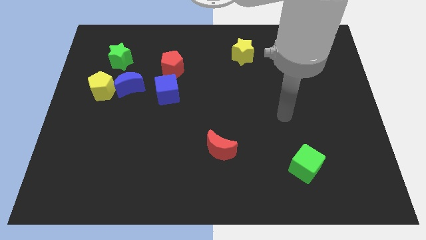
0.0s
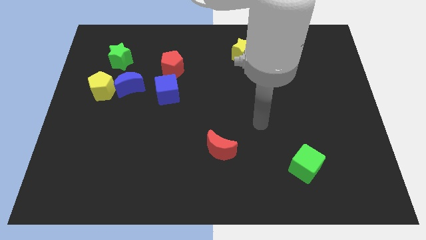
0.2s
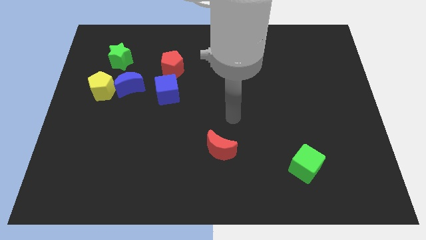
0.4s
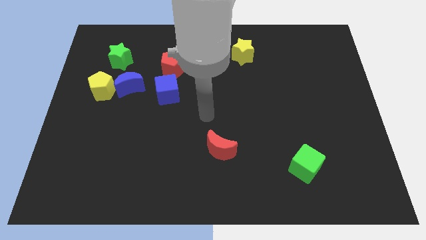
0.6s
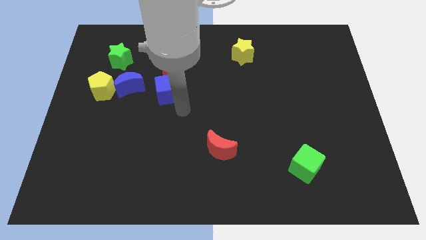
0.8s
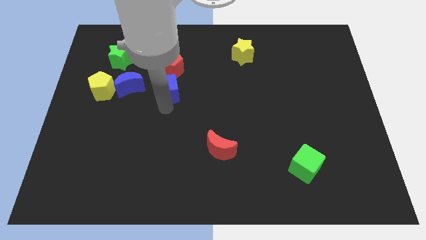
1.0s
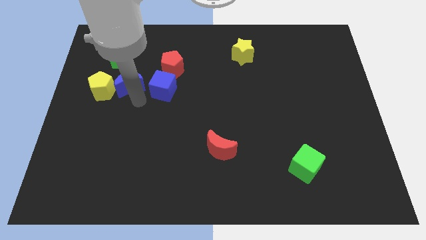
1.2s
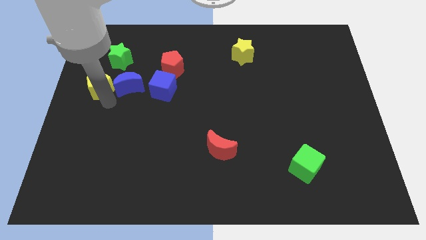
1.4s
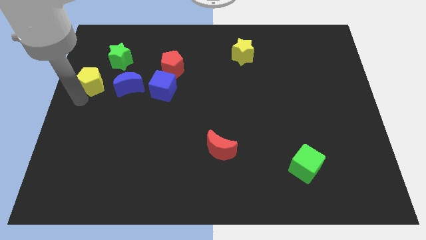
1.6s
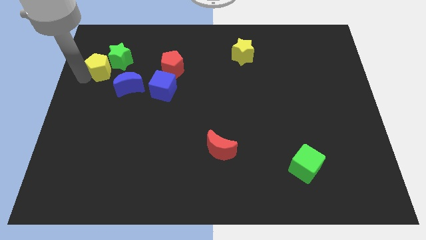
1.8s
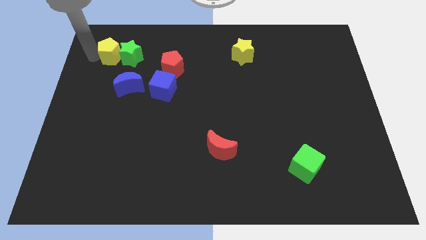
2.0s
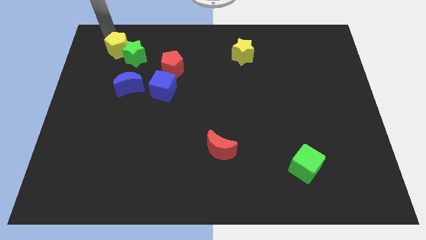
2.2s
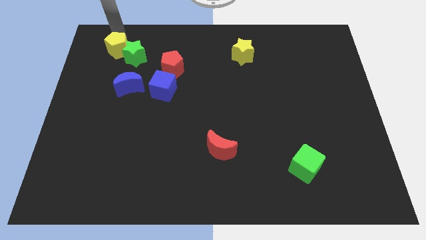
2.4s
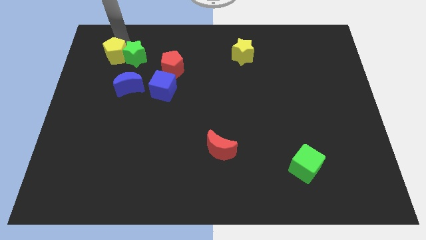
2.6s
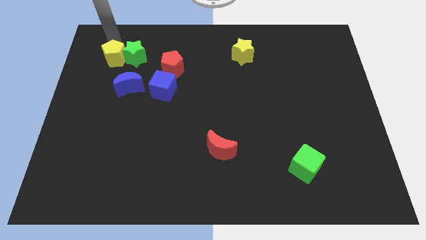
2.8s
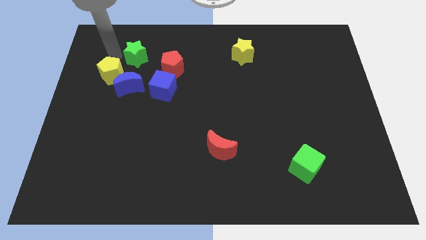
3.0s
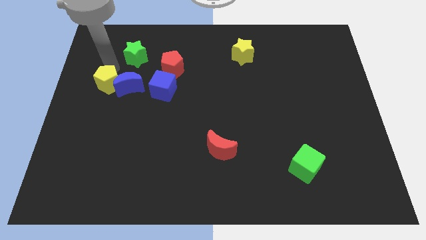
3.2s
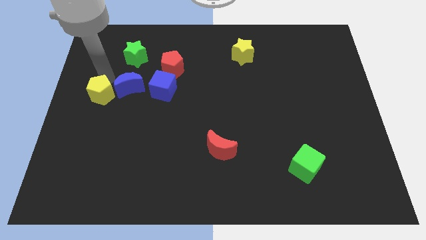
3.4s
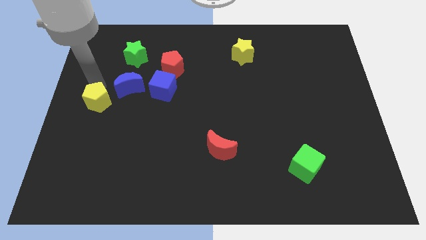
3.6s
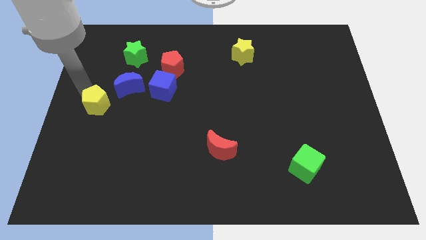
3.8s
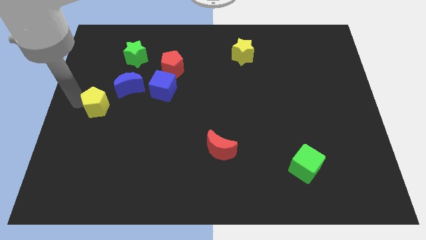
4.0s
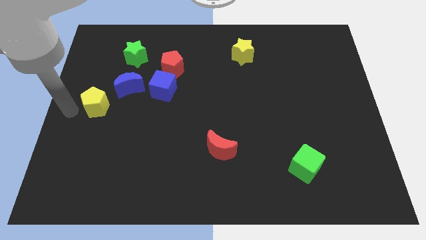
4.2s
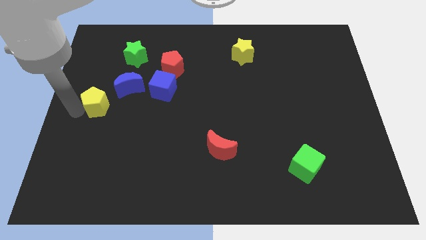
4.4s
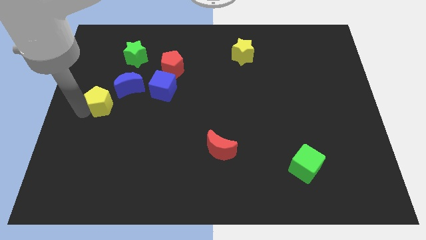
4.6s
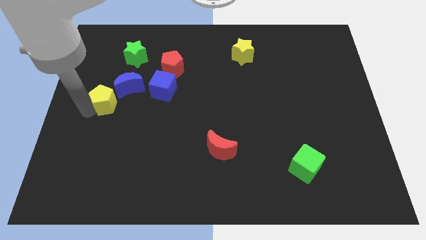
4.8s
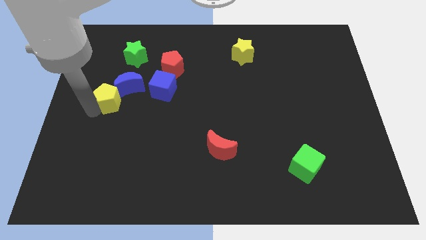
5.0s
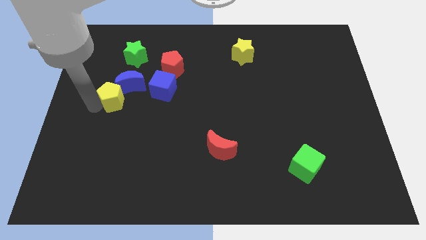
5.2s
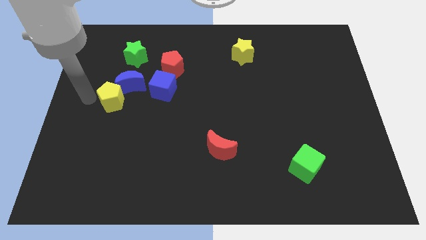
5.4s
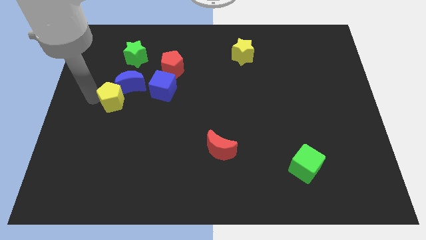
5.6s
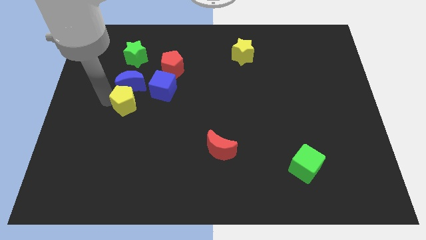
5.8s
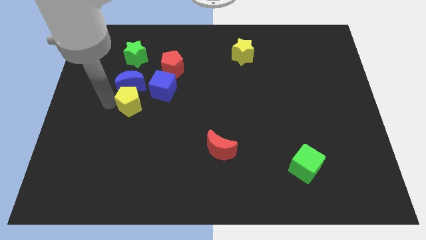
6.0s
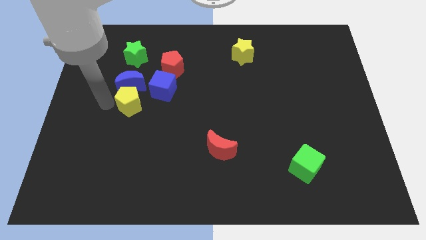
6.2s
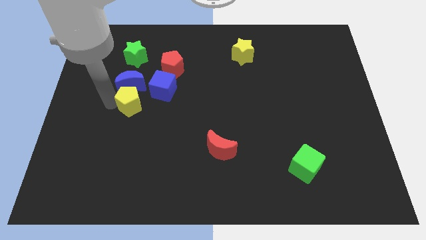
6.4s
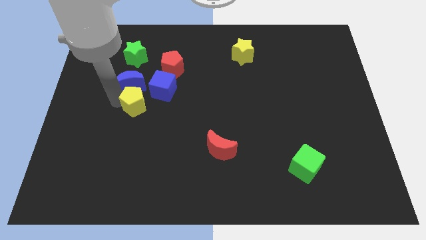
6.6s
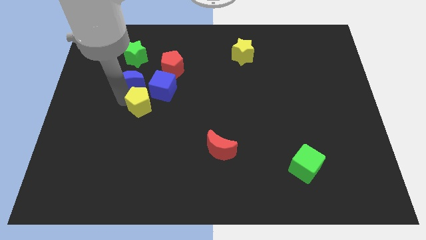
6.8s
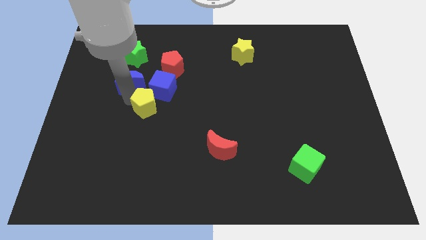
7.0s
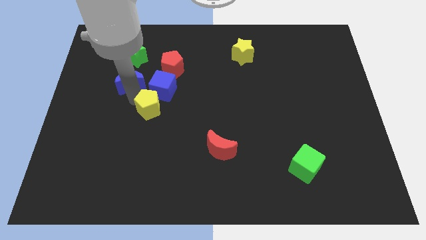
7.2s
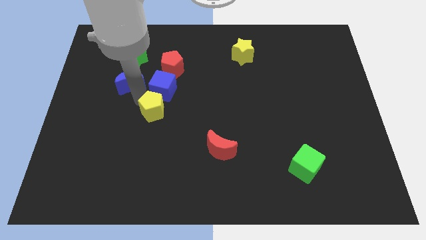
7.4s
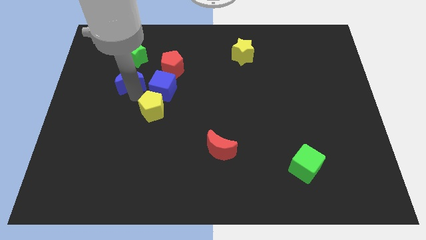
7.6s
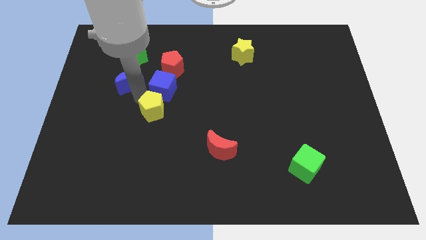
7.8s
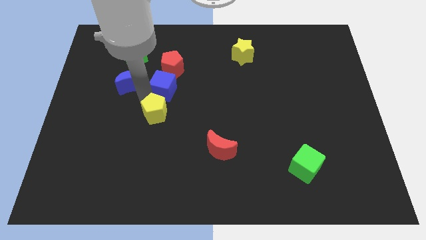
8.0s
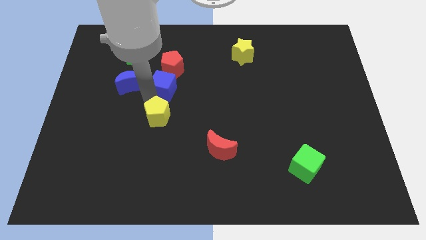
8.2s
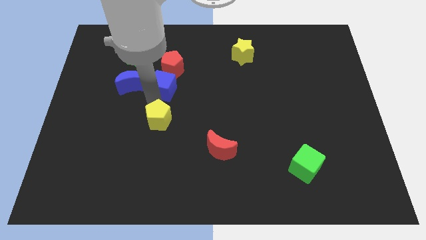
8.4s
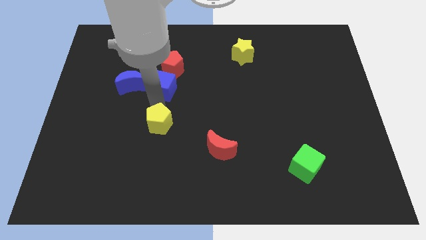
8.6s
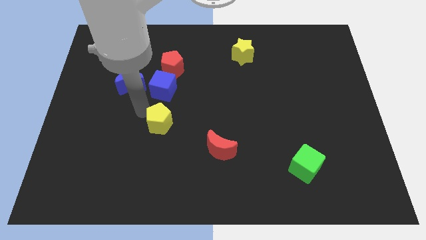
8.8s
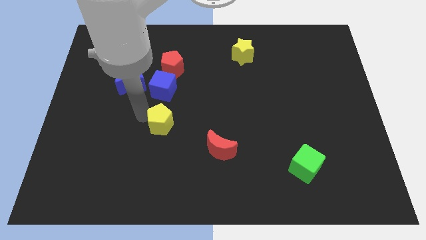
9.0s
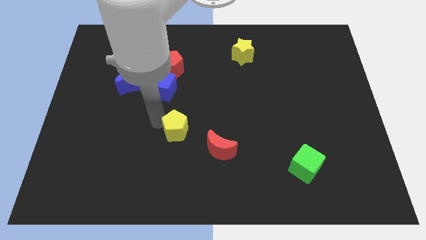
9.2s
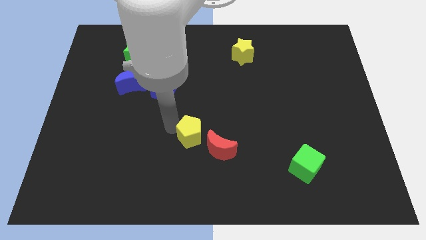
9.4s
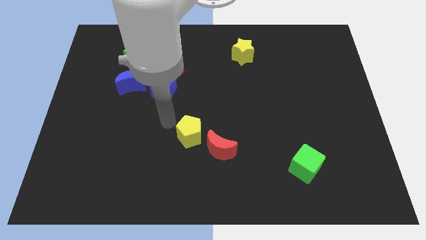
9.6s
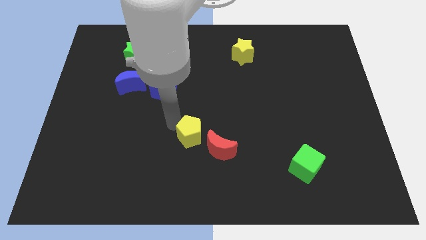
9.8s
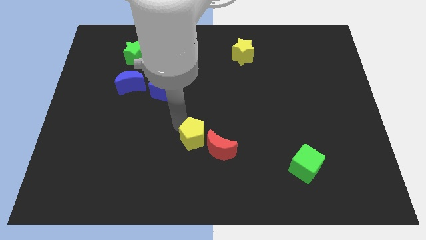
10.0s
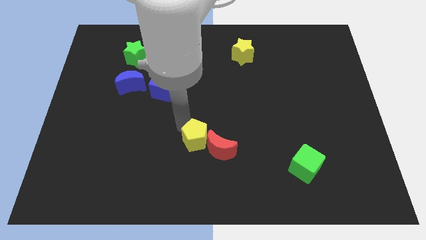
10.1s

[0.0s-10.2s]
slide the yellow pentagon close to the red moon

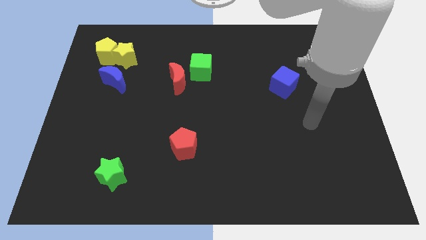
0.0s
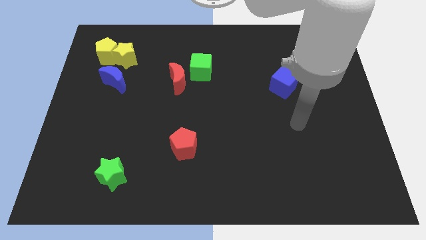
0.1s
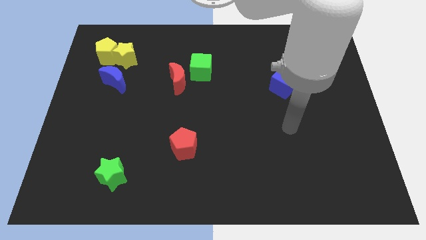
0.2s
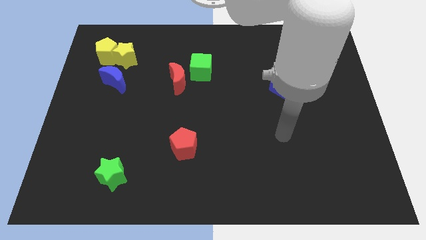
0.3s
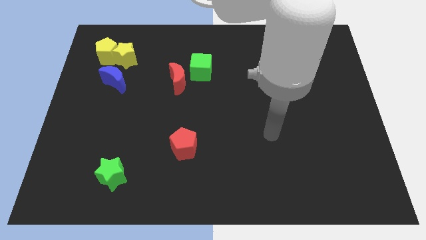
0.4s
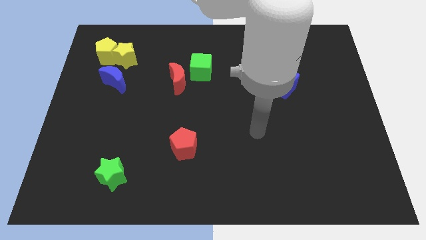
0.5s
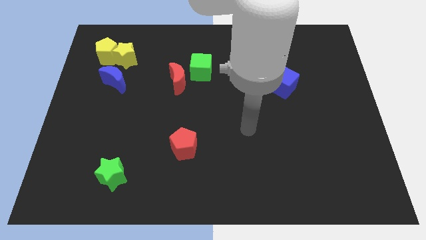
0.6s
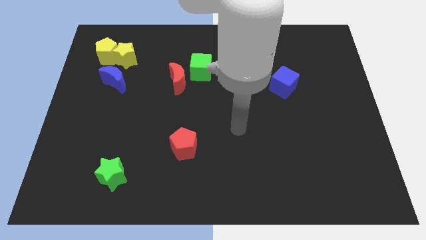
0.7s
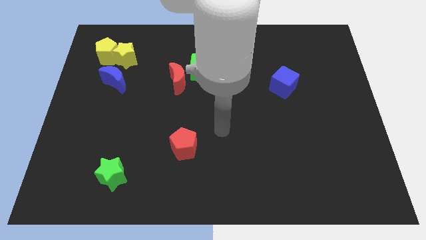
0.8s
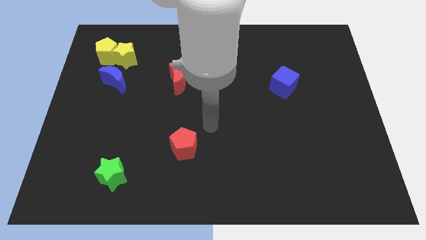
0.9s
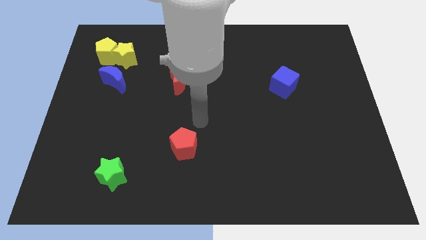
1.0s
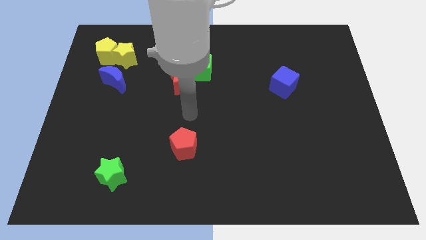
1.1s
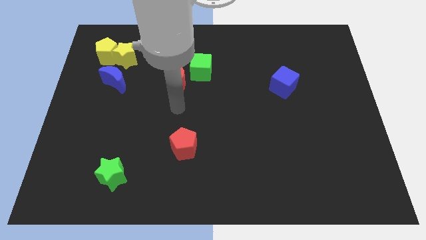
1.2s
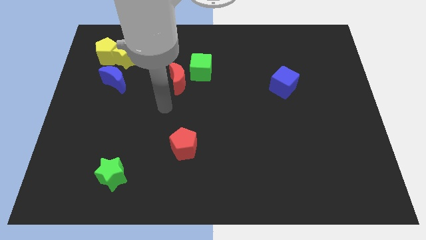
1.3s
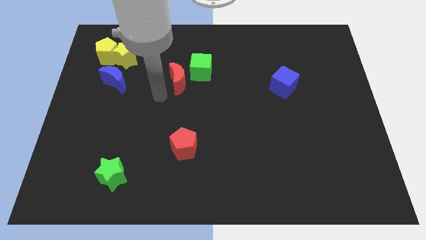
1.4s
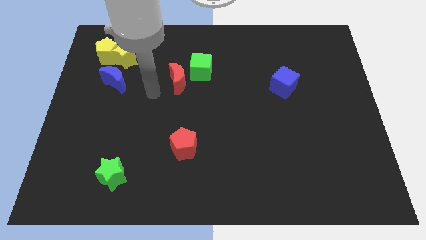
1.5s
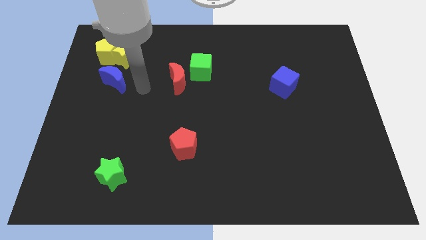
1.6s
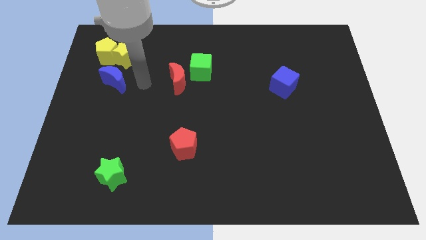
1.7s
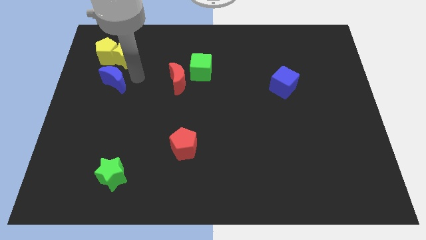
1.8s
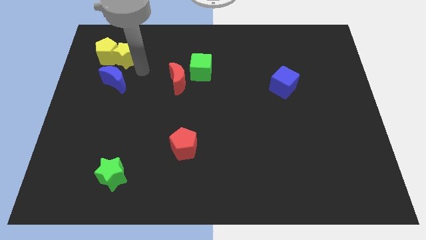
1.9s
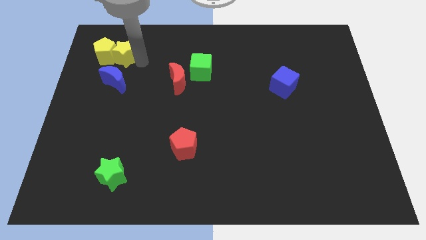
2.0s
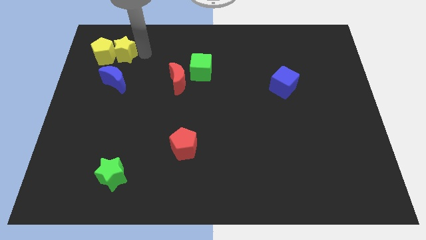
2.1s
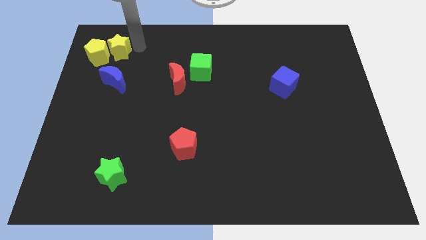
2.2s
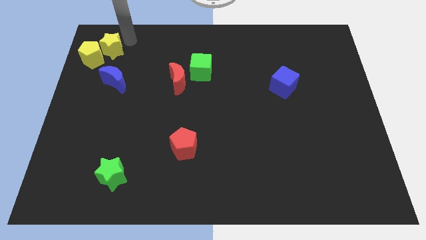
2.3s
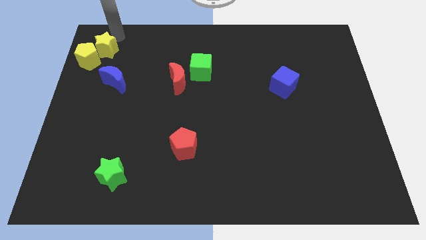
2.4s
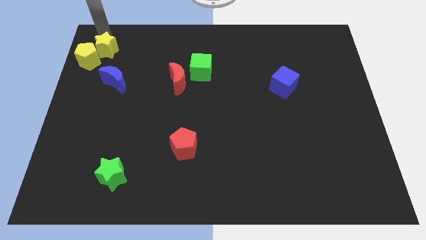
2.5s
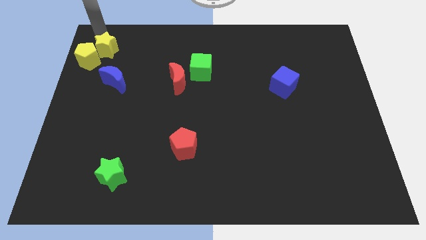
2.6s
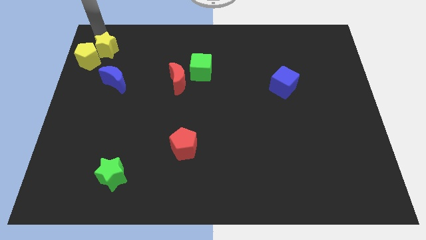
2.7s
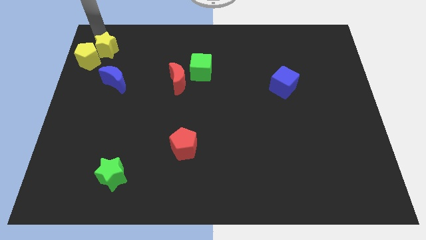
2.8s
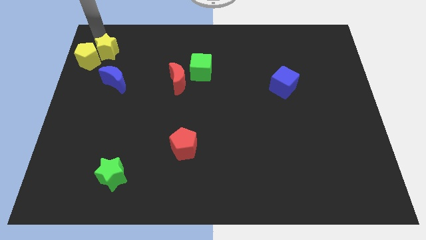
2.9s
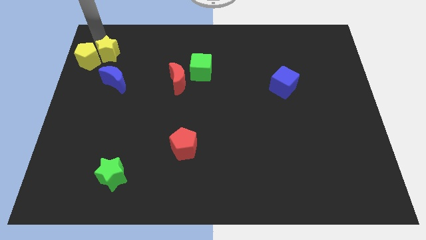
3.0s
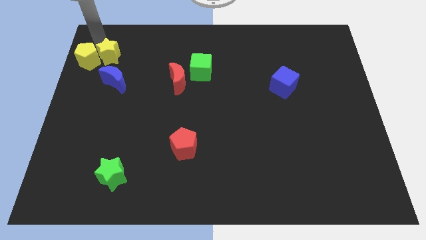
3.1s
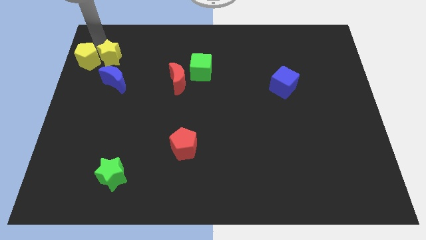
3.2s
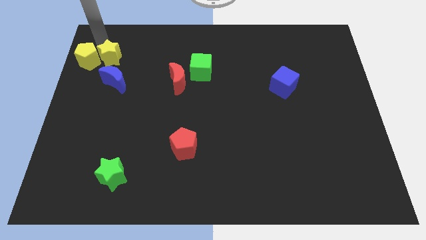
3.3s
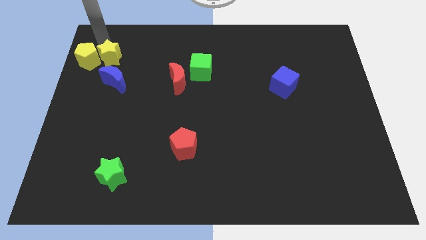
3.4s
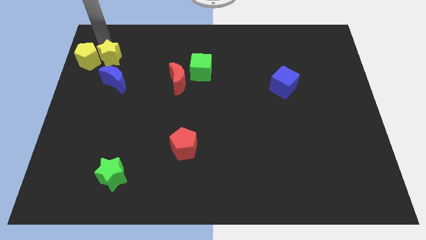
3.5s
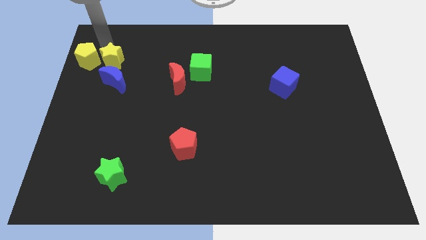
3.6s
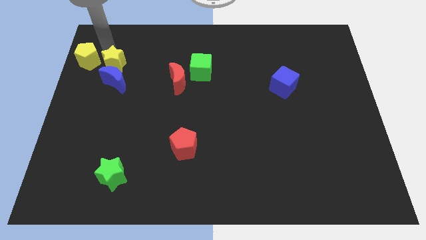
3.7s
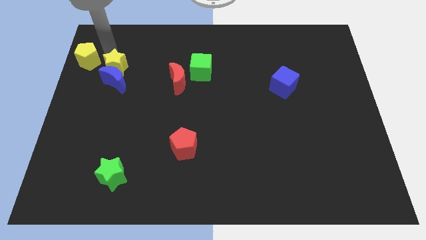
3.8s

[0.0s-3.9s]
slide the yellow star close to the blue moon
